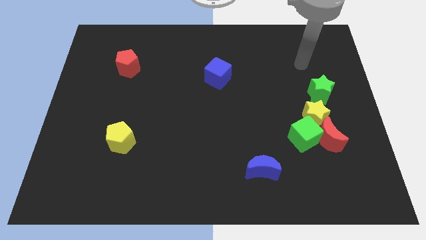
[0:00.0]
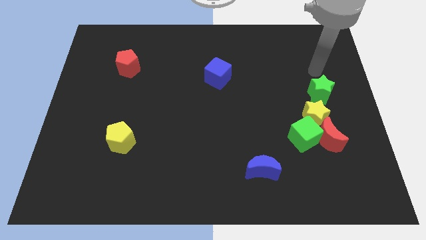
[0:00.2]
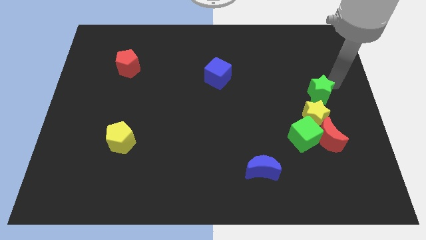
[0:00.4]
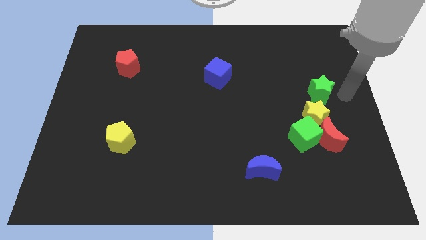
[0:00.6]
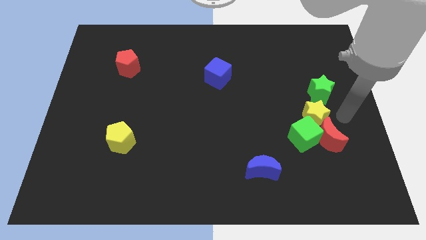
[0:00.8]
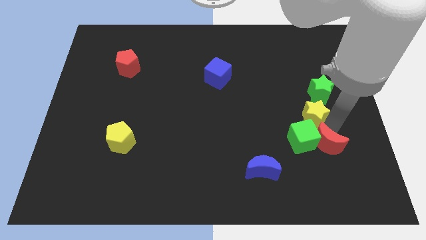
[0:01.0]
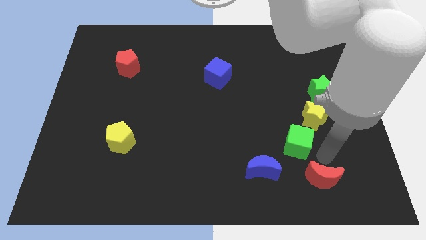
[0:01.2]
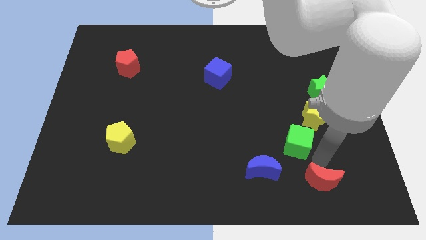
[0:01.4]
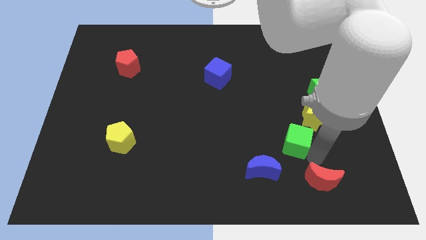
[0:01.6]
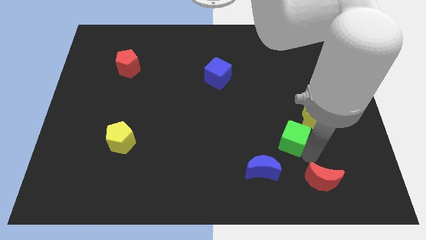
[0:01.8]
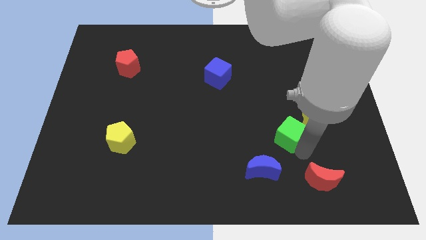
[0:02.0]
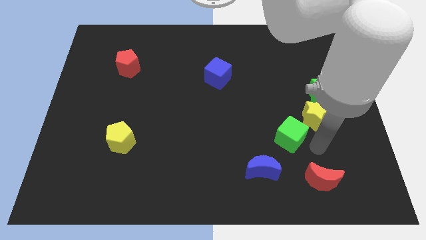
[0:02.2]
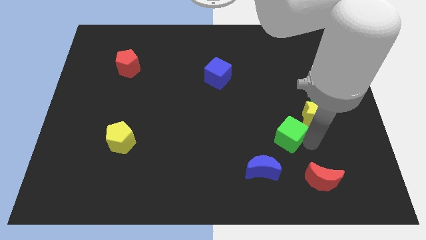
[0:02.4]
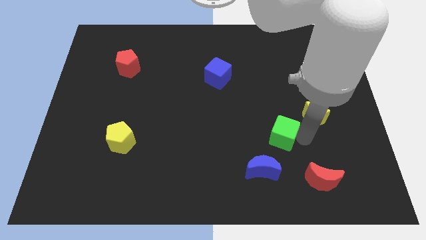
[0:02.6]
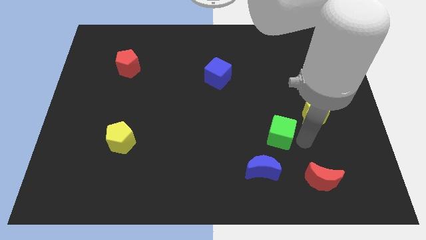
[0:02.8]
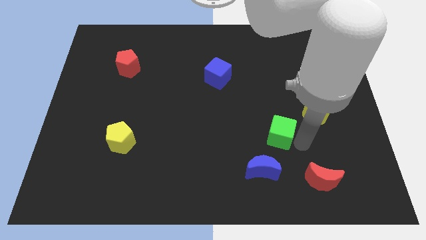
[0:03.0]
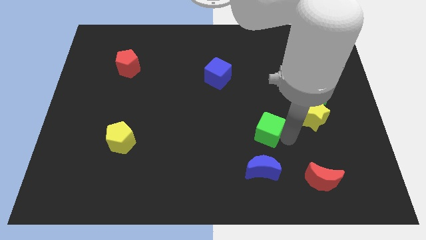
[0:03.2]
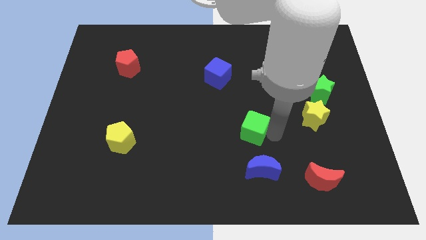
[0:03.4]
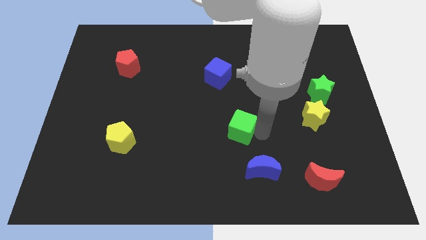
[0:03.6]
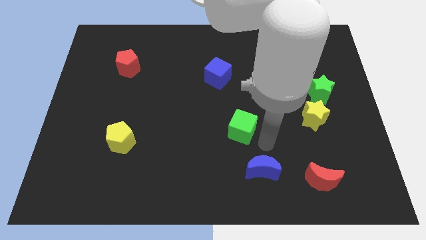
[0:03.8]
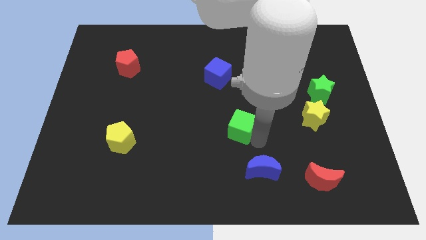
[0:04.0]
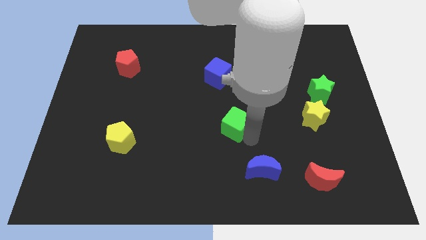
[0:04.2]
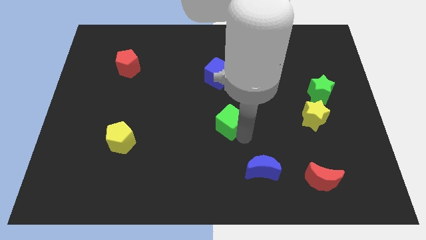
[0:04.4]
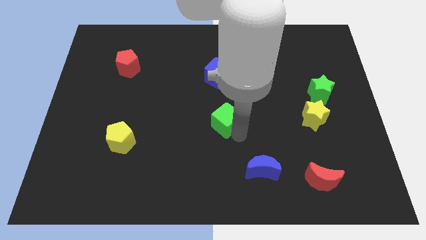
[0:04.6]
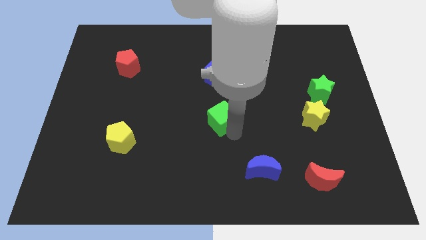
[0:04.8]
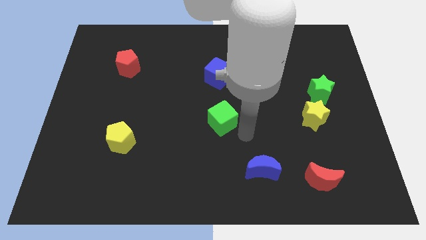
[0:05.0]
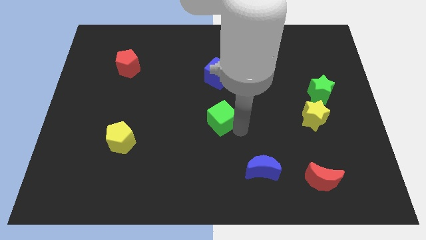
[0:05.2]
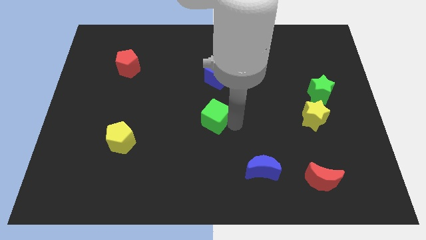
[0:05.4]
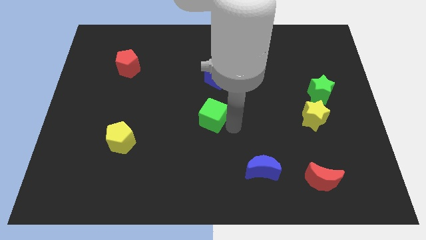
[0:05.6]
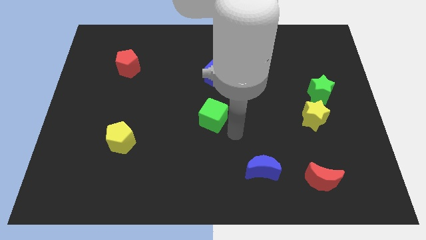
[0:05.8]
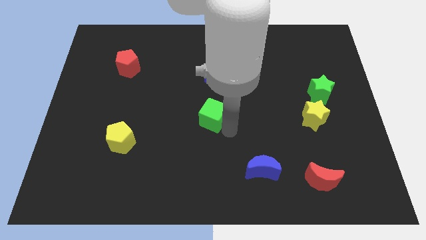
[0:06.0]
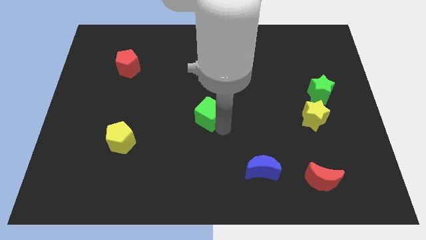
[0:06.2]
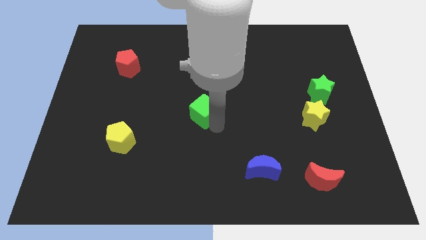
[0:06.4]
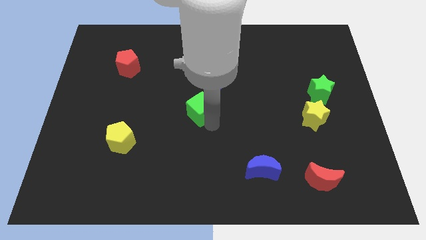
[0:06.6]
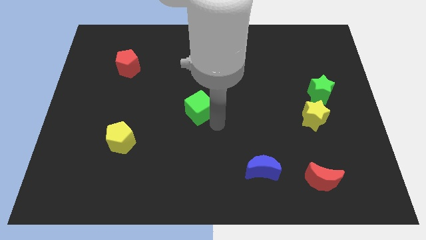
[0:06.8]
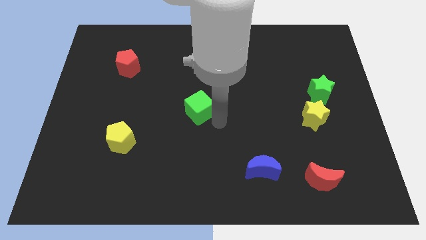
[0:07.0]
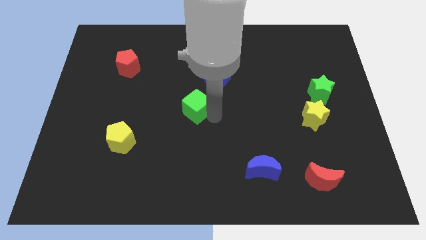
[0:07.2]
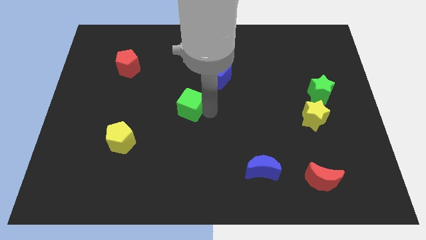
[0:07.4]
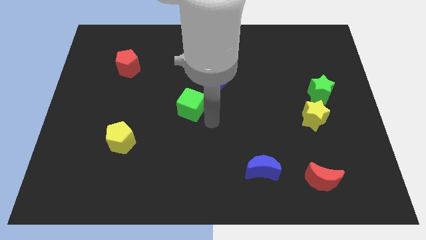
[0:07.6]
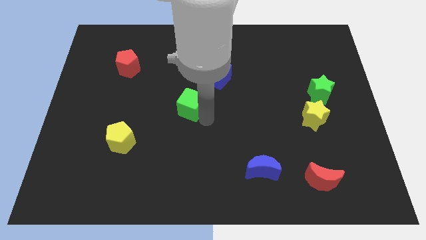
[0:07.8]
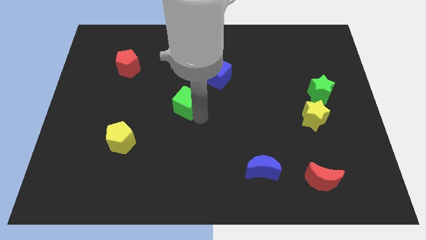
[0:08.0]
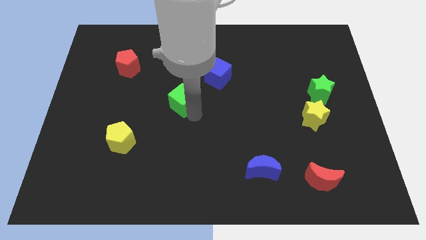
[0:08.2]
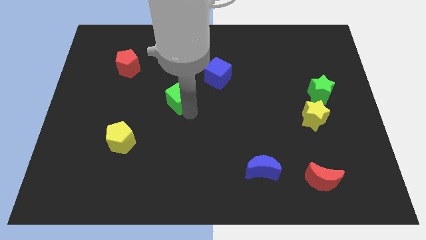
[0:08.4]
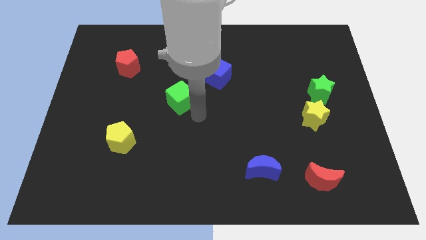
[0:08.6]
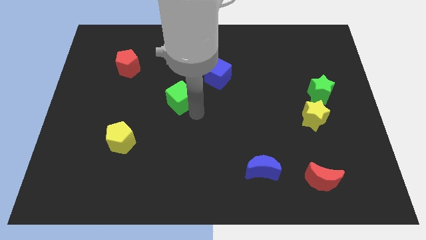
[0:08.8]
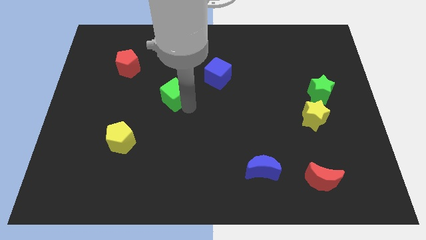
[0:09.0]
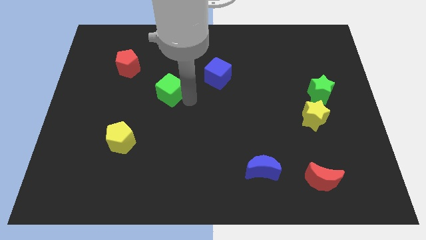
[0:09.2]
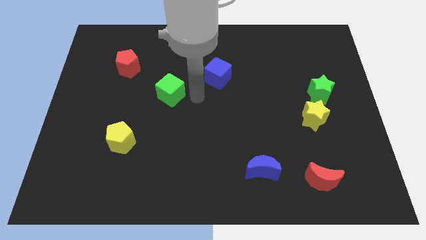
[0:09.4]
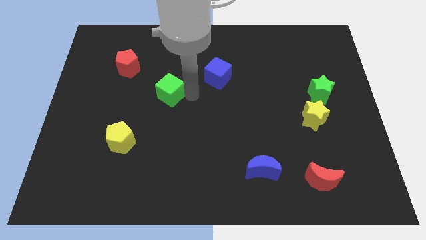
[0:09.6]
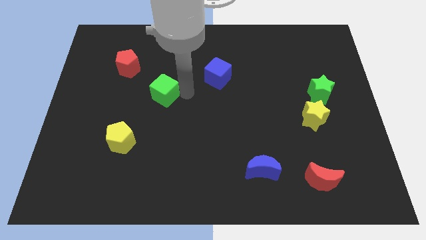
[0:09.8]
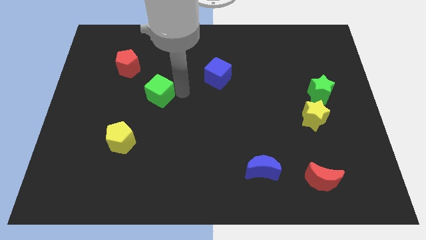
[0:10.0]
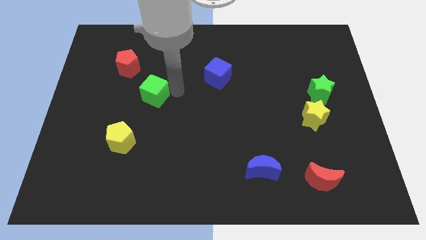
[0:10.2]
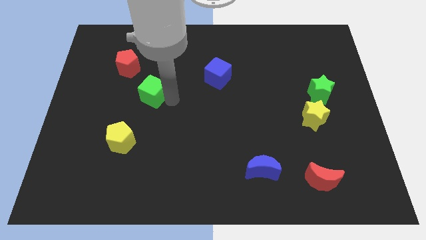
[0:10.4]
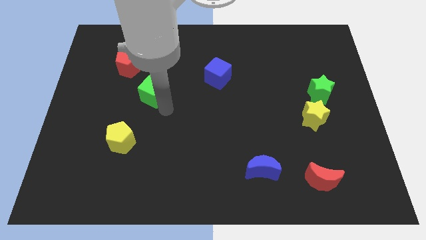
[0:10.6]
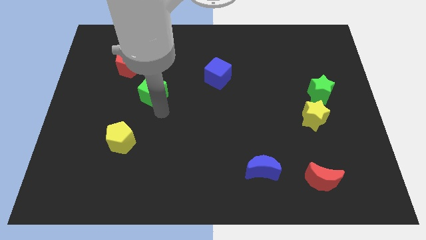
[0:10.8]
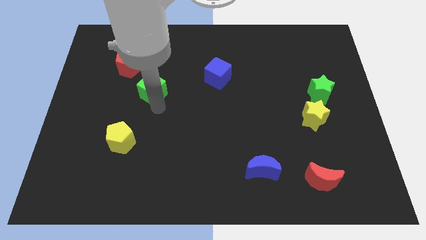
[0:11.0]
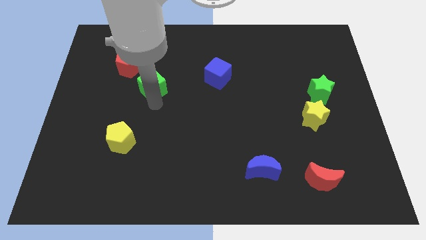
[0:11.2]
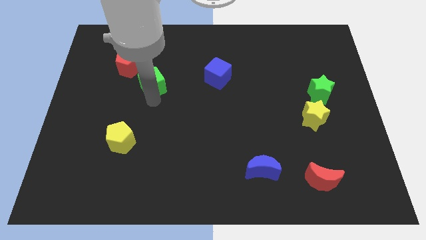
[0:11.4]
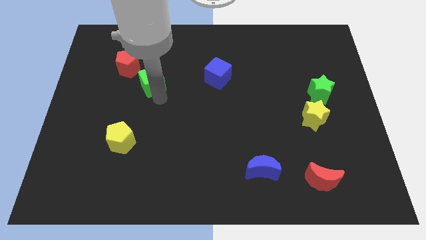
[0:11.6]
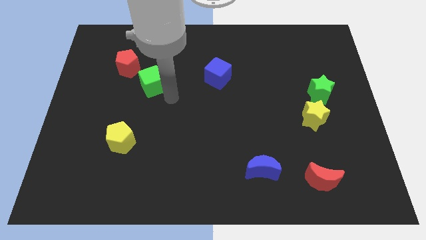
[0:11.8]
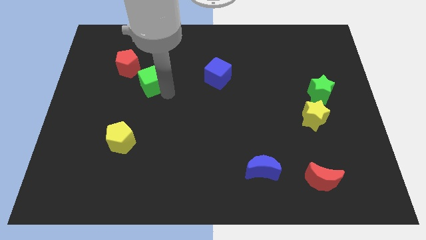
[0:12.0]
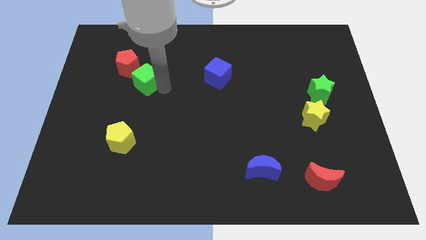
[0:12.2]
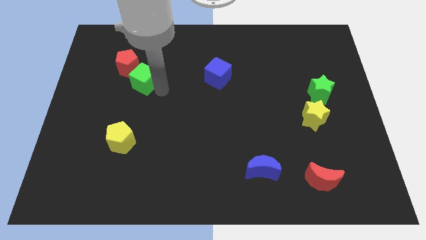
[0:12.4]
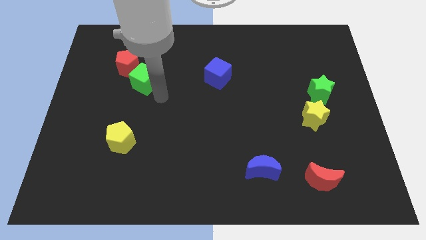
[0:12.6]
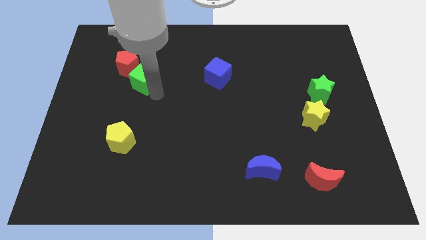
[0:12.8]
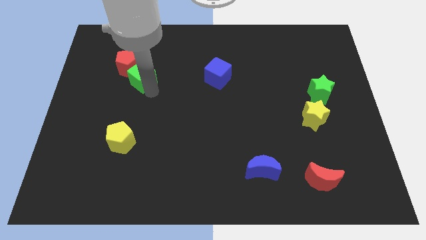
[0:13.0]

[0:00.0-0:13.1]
move the green cube next to the red pentagon

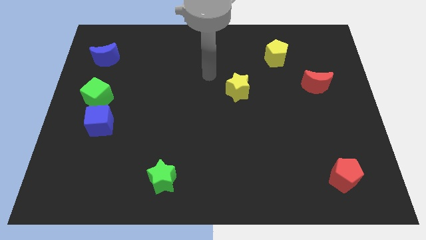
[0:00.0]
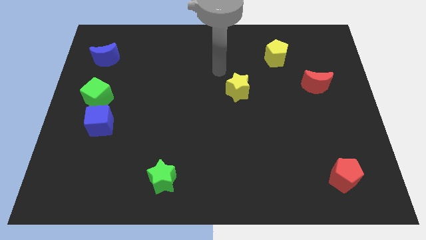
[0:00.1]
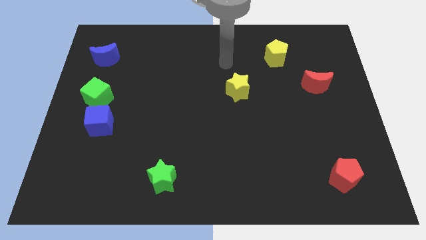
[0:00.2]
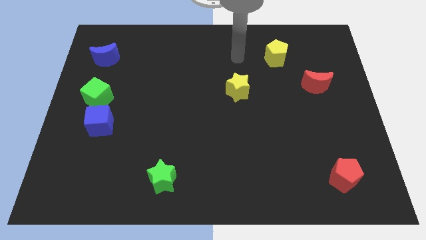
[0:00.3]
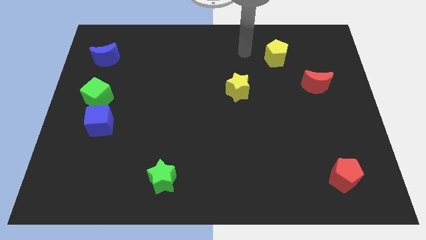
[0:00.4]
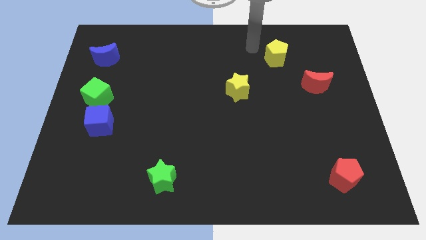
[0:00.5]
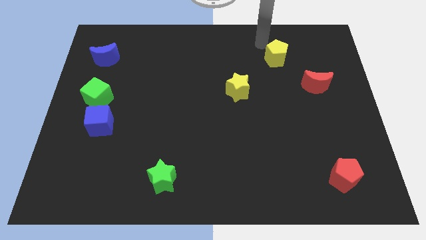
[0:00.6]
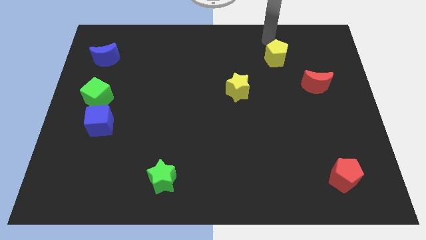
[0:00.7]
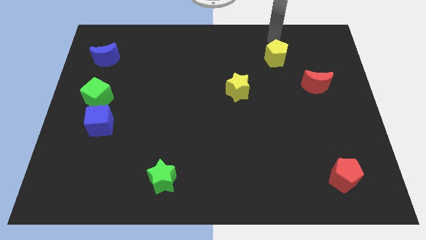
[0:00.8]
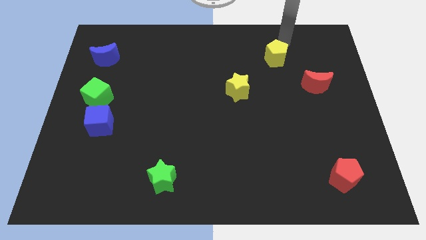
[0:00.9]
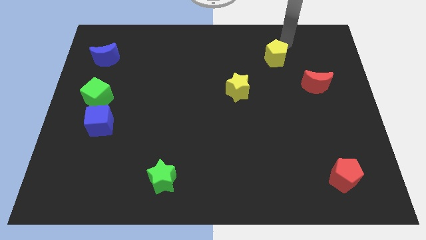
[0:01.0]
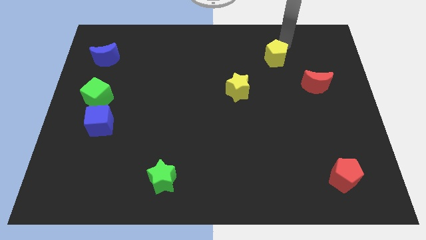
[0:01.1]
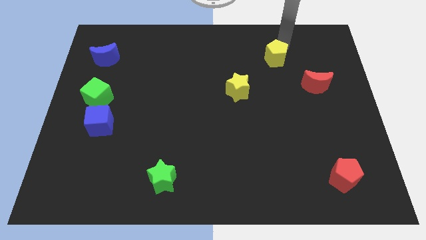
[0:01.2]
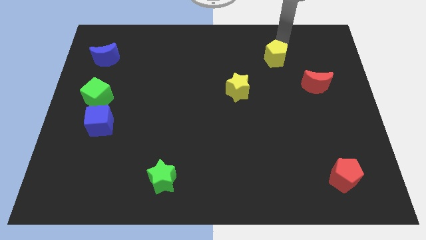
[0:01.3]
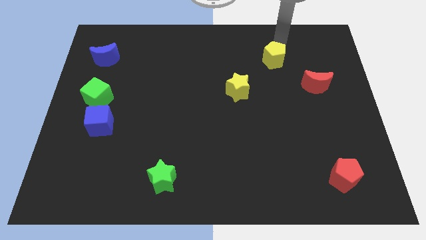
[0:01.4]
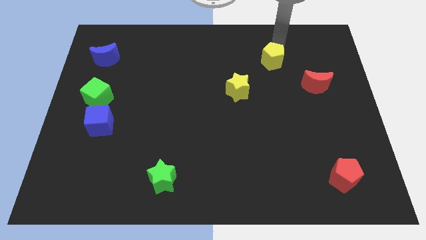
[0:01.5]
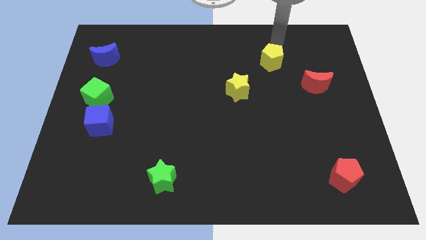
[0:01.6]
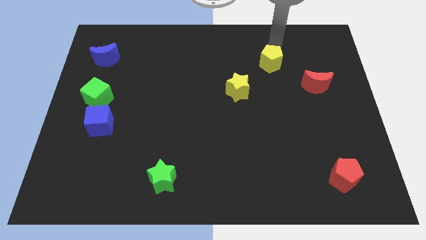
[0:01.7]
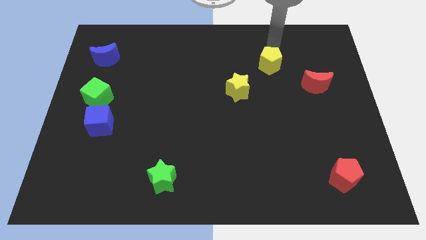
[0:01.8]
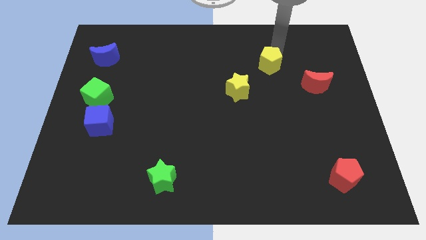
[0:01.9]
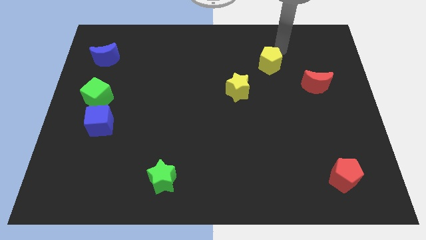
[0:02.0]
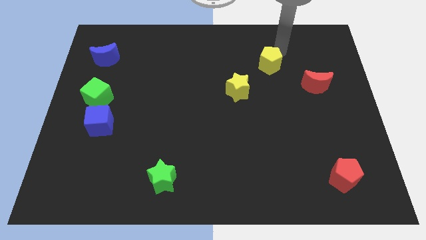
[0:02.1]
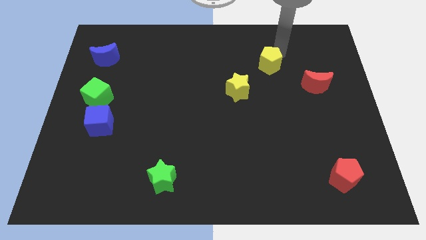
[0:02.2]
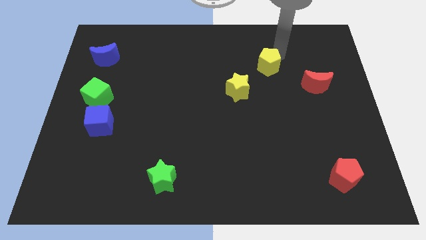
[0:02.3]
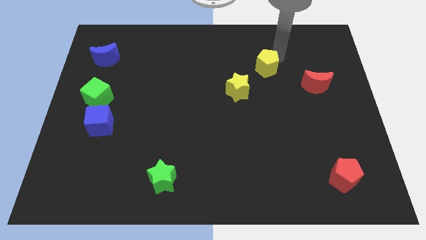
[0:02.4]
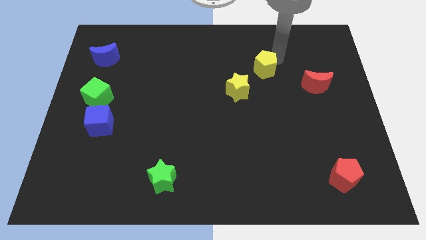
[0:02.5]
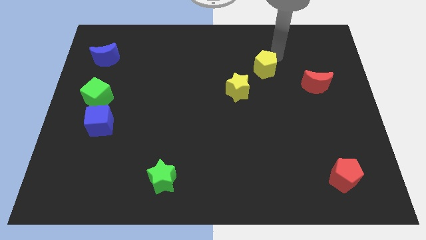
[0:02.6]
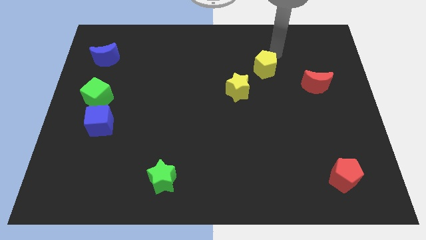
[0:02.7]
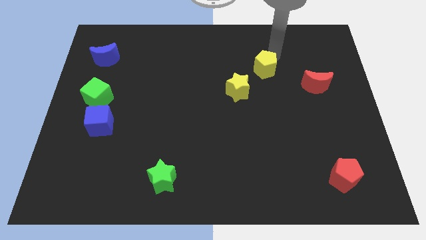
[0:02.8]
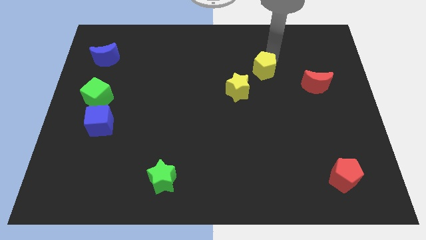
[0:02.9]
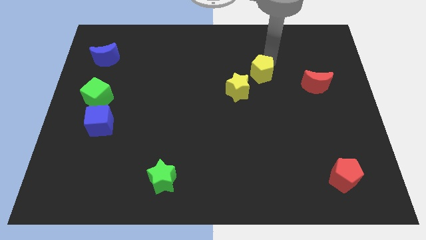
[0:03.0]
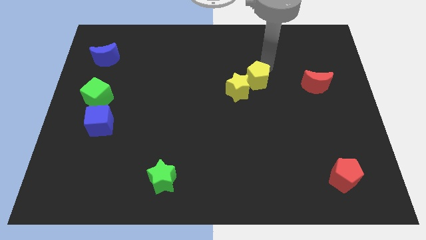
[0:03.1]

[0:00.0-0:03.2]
slide the yellow pentagon next to the yellow star
